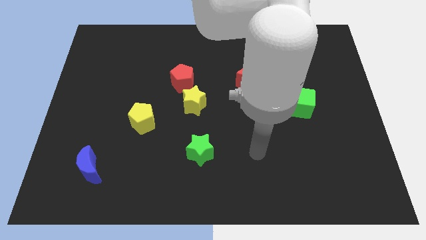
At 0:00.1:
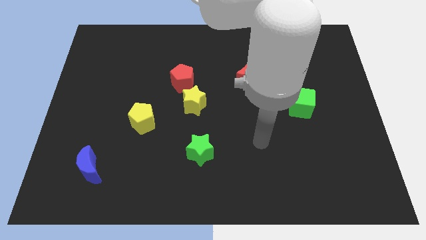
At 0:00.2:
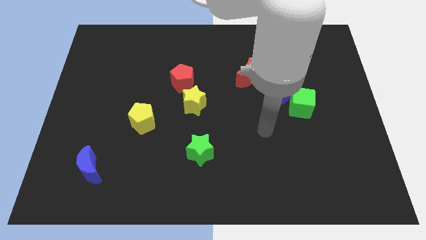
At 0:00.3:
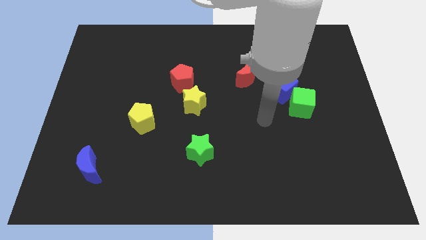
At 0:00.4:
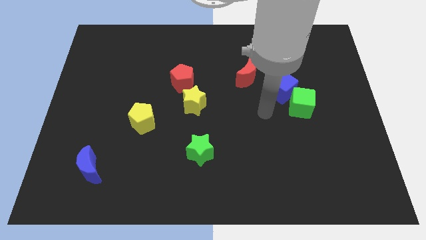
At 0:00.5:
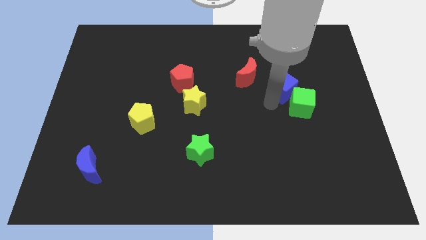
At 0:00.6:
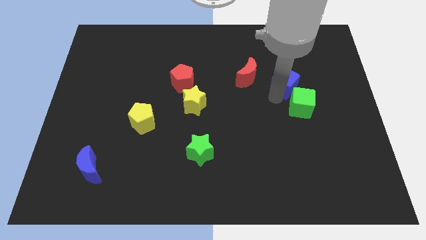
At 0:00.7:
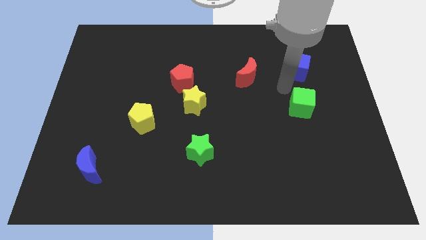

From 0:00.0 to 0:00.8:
pull the green cube apart from the blue cube

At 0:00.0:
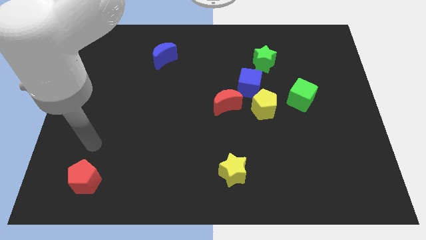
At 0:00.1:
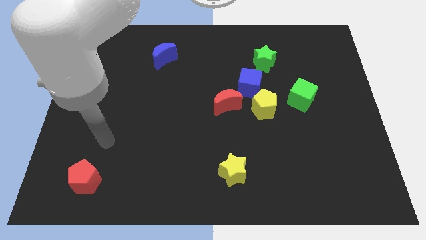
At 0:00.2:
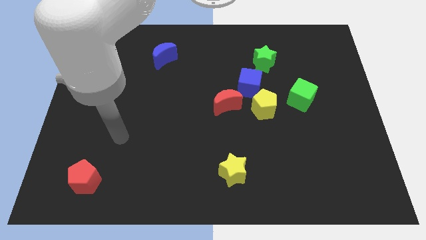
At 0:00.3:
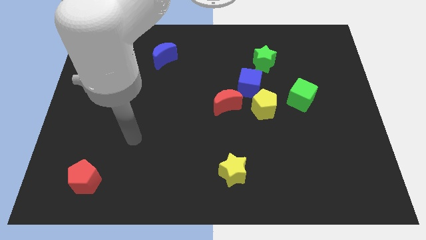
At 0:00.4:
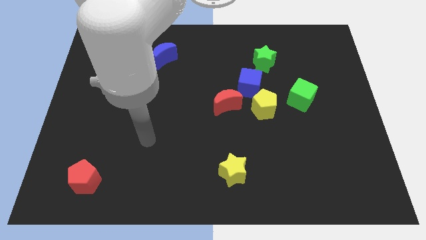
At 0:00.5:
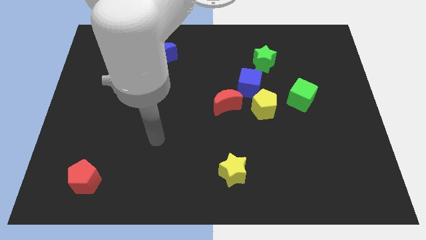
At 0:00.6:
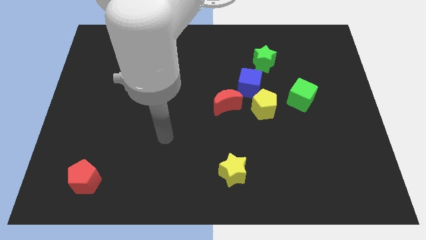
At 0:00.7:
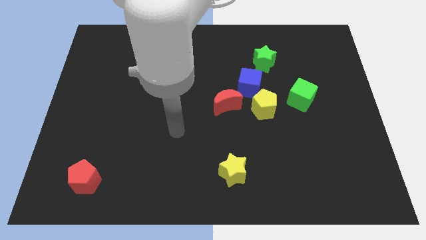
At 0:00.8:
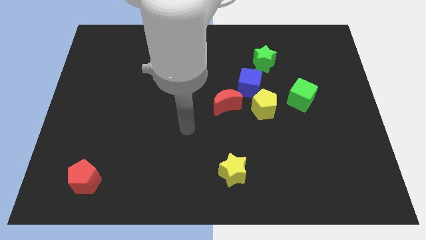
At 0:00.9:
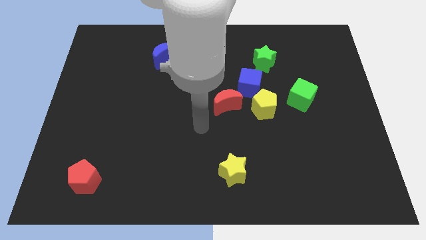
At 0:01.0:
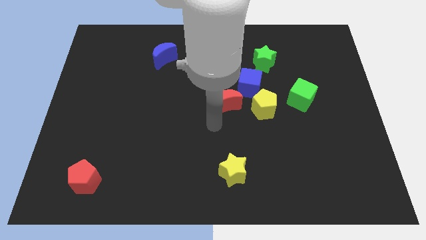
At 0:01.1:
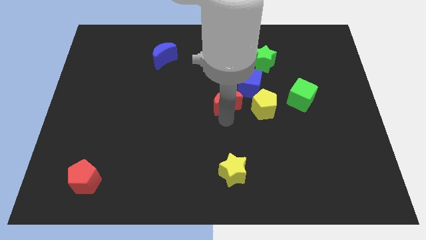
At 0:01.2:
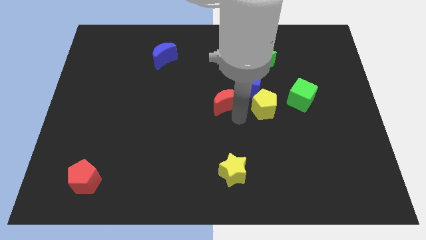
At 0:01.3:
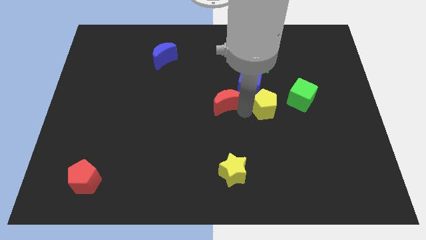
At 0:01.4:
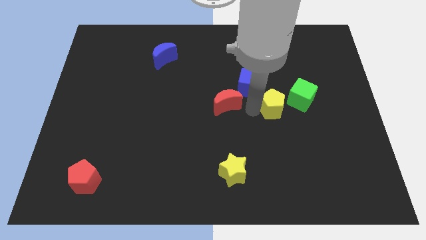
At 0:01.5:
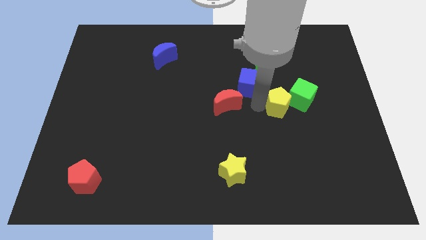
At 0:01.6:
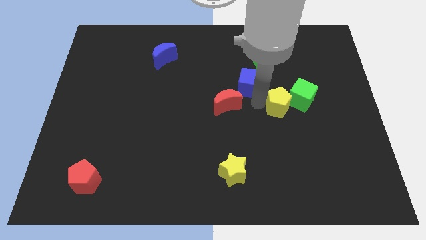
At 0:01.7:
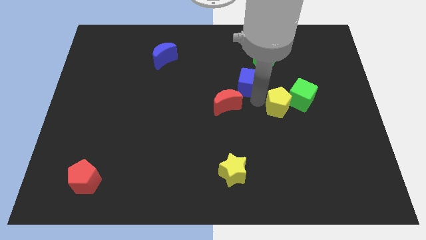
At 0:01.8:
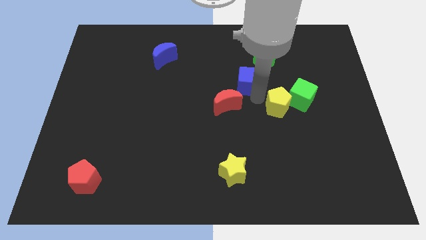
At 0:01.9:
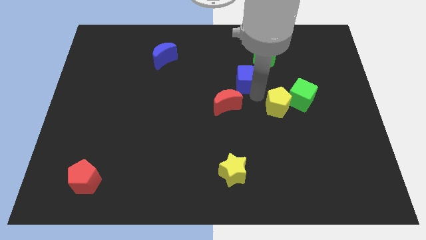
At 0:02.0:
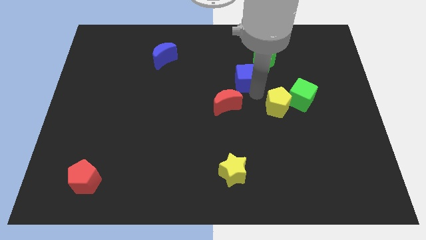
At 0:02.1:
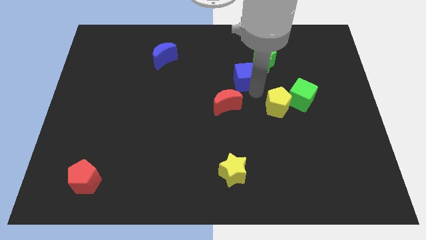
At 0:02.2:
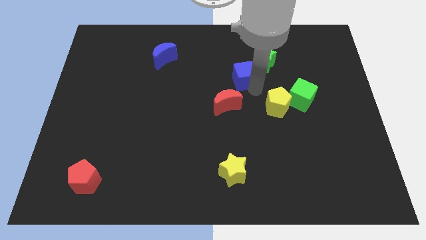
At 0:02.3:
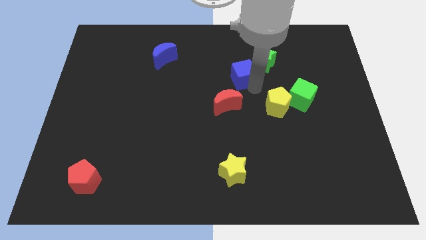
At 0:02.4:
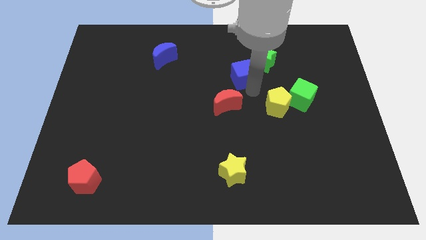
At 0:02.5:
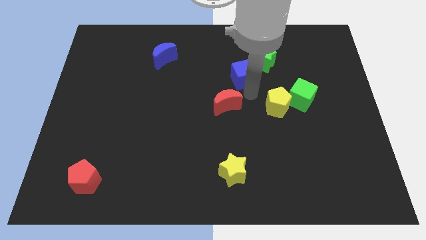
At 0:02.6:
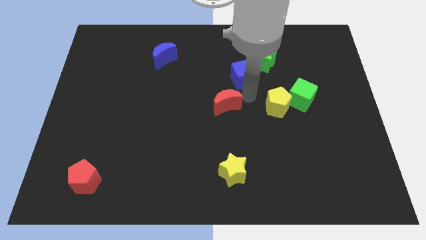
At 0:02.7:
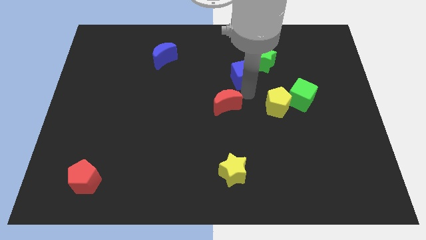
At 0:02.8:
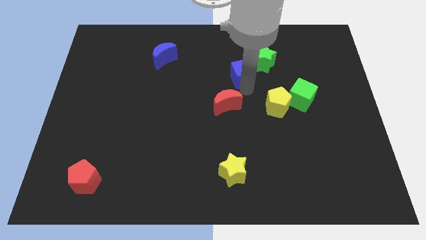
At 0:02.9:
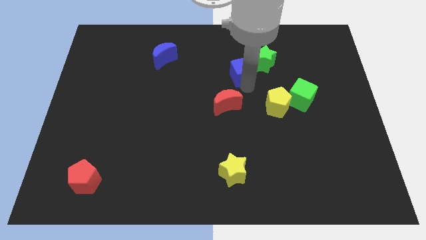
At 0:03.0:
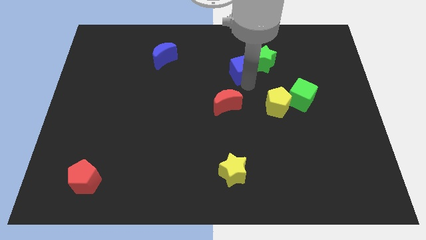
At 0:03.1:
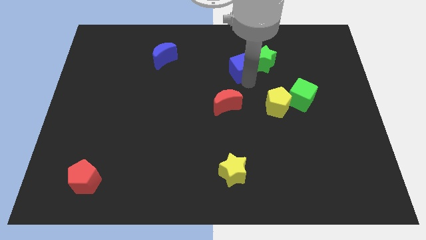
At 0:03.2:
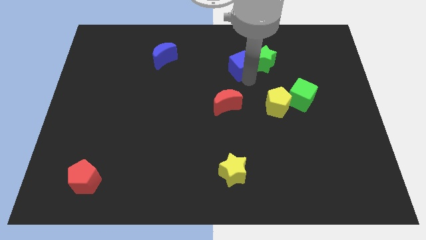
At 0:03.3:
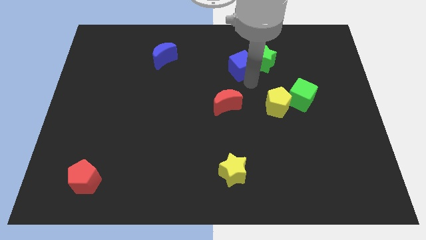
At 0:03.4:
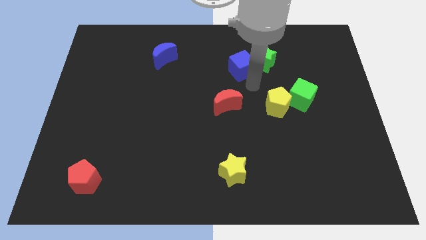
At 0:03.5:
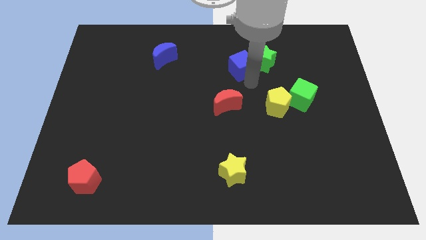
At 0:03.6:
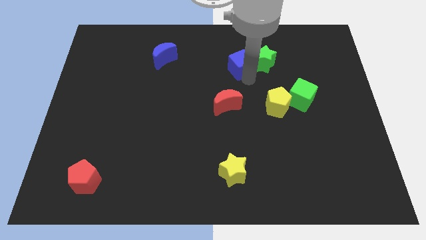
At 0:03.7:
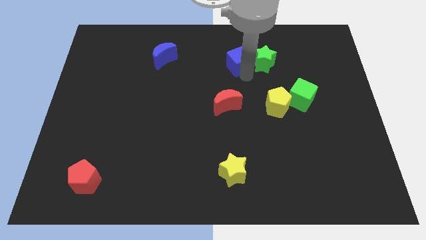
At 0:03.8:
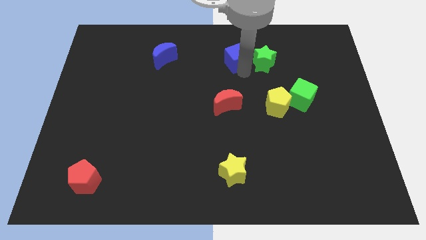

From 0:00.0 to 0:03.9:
move the blue cube away from the yellow pentagon, red moon, and green star

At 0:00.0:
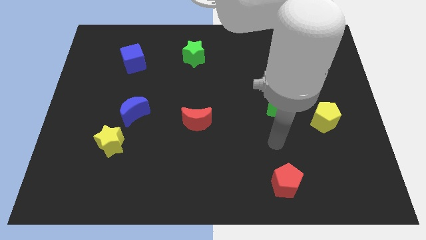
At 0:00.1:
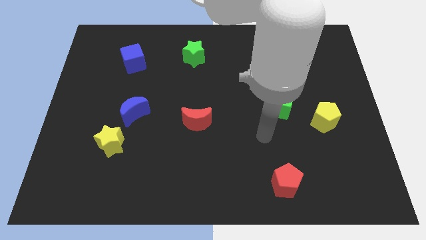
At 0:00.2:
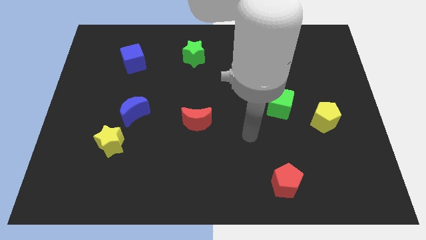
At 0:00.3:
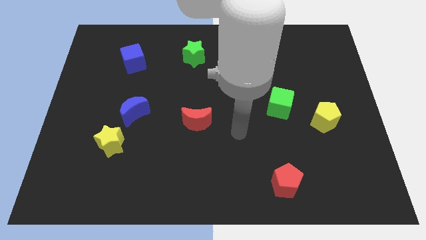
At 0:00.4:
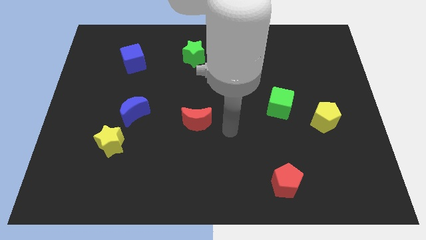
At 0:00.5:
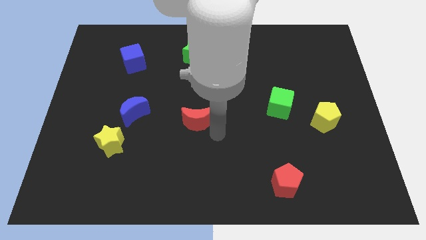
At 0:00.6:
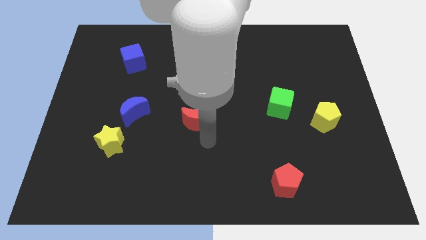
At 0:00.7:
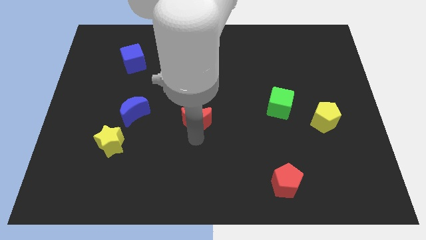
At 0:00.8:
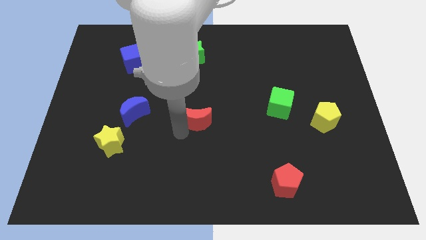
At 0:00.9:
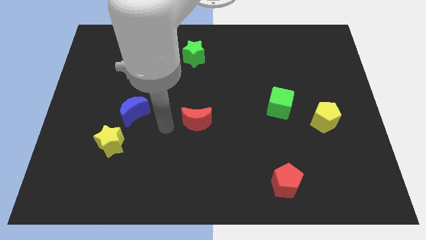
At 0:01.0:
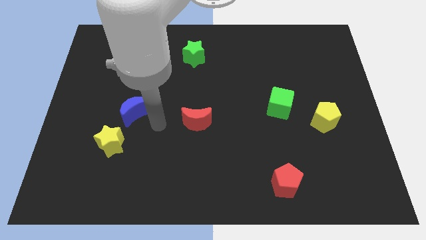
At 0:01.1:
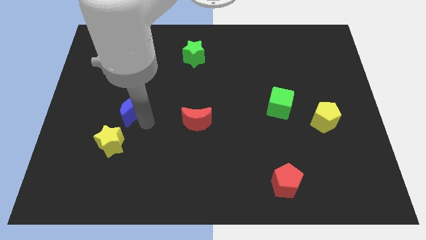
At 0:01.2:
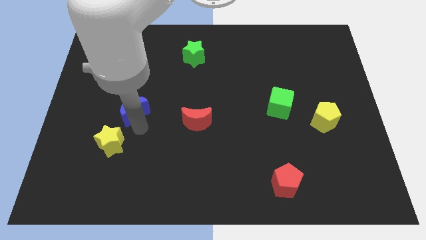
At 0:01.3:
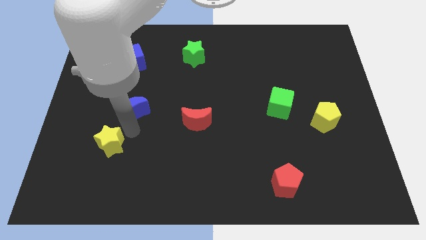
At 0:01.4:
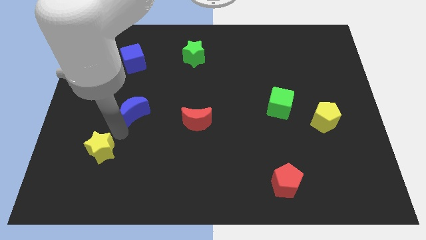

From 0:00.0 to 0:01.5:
move the blue moon away from the yellow star

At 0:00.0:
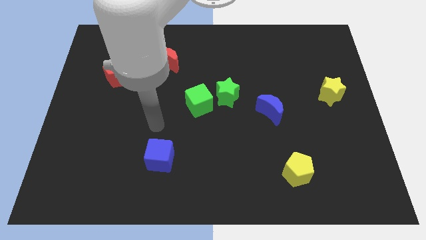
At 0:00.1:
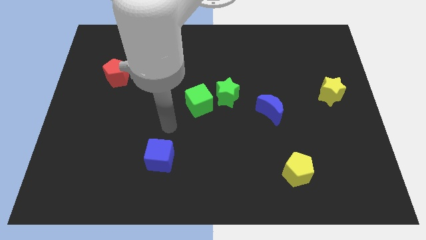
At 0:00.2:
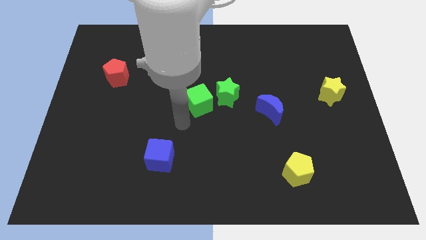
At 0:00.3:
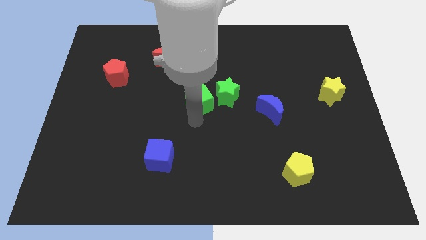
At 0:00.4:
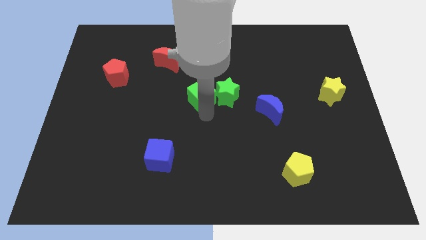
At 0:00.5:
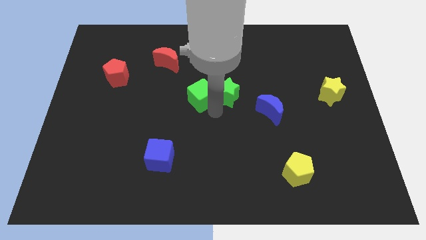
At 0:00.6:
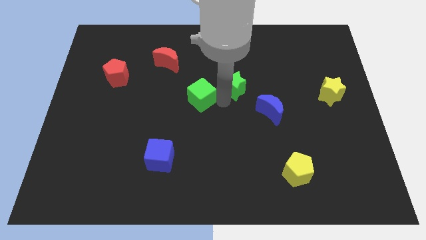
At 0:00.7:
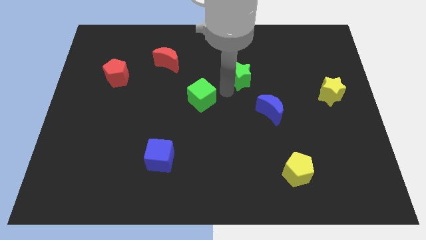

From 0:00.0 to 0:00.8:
move the green cube away from the green star

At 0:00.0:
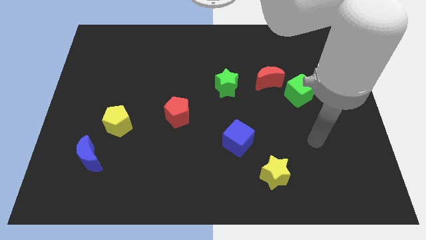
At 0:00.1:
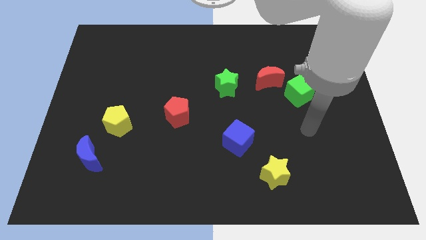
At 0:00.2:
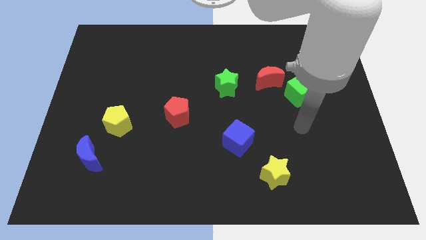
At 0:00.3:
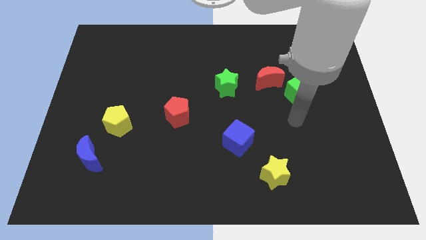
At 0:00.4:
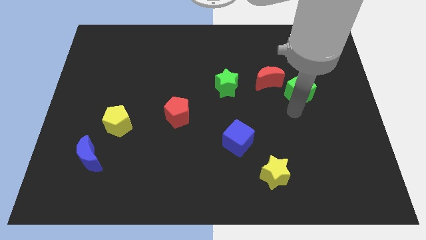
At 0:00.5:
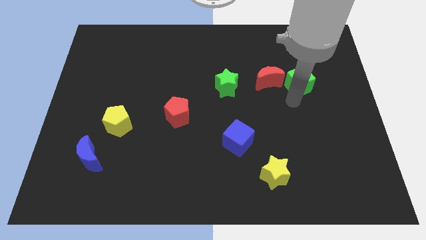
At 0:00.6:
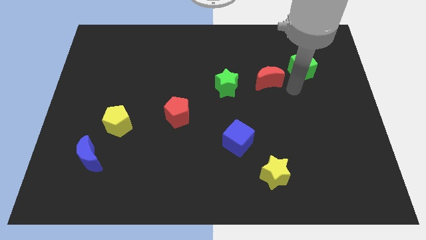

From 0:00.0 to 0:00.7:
separate the red moon from the green cube

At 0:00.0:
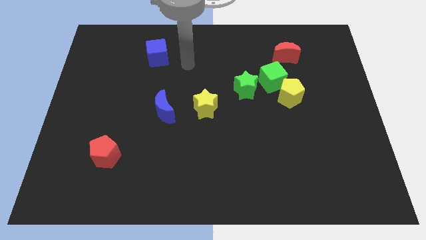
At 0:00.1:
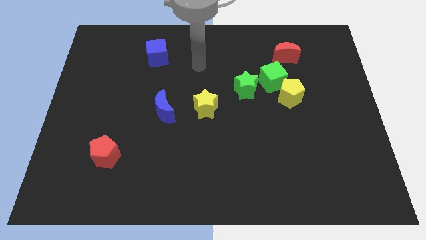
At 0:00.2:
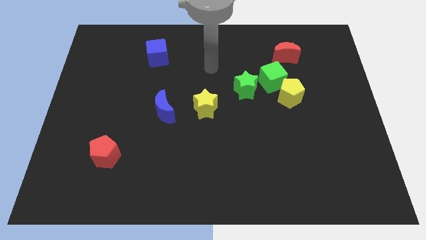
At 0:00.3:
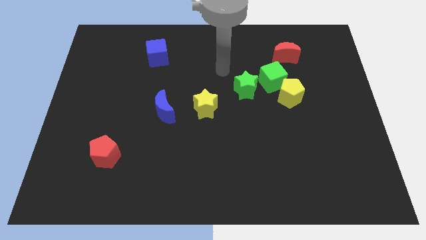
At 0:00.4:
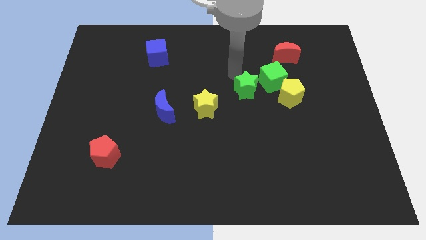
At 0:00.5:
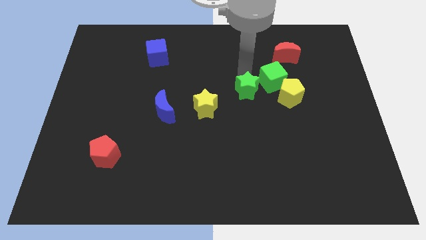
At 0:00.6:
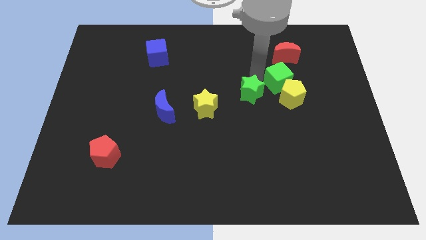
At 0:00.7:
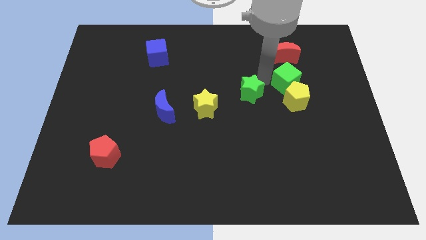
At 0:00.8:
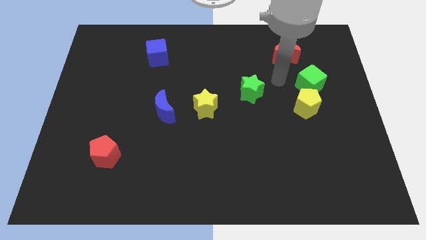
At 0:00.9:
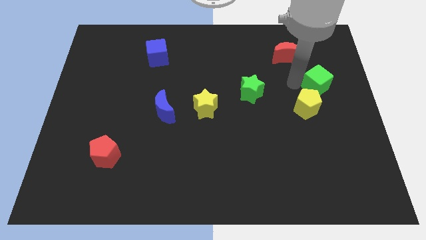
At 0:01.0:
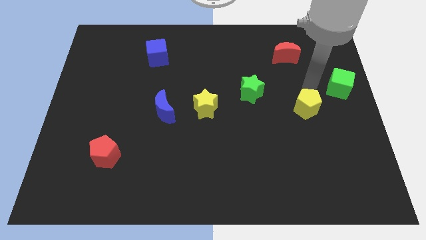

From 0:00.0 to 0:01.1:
pull the yellow pentagon apart from the green cube

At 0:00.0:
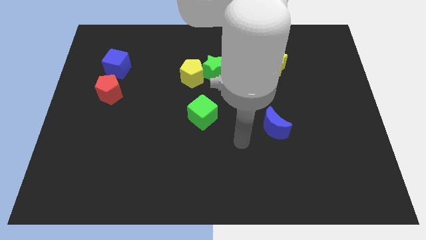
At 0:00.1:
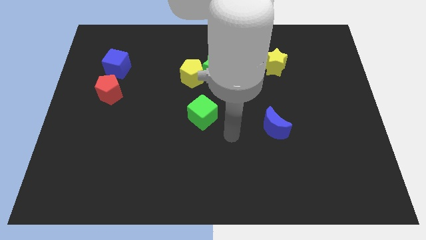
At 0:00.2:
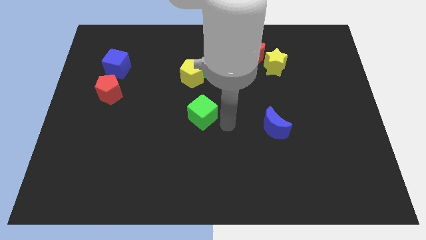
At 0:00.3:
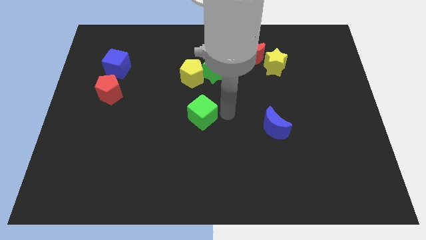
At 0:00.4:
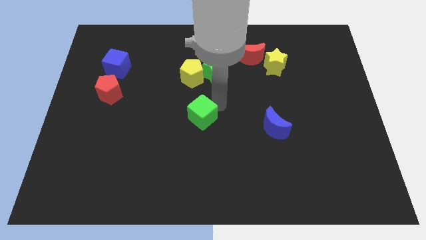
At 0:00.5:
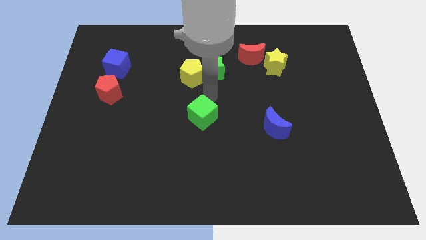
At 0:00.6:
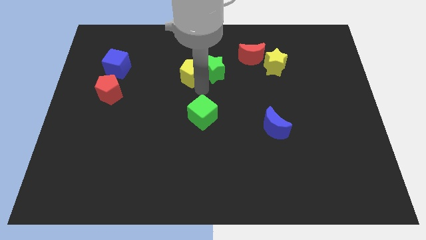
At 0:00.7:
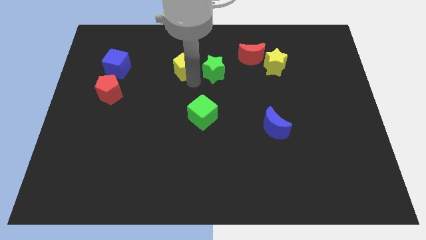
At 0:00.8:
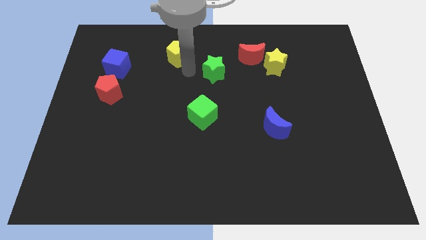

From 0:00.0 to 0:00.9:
move the green star away from the yellow pentagon
